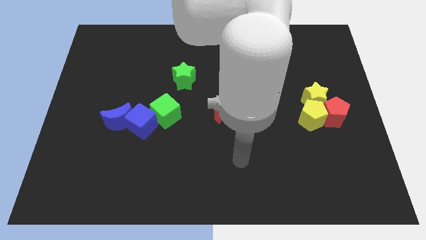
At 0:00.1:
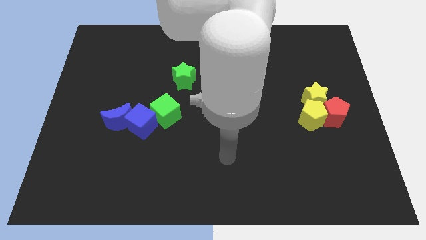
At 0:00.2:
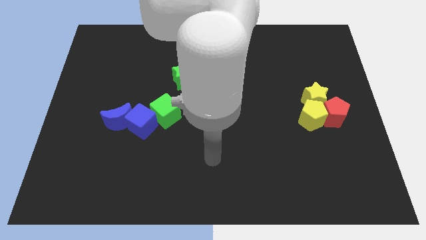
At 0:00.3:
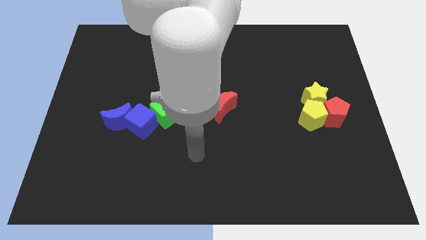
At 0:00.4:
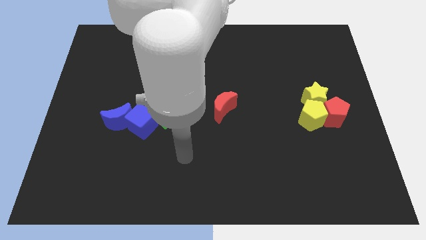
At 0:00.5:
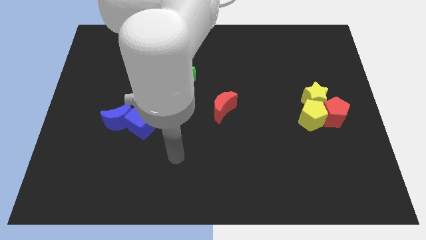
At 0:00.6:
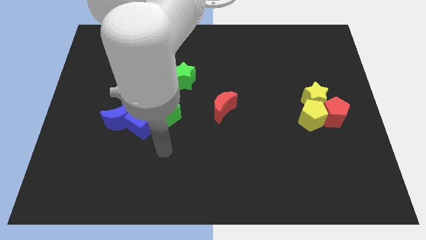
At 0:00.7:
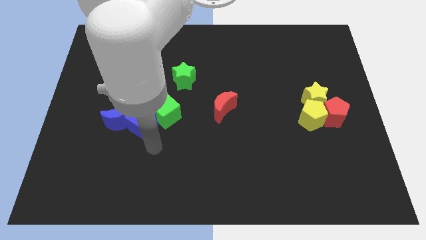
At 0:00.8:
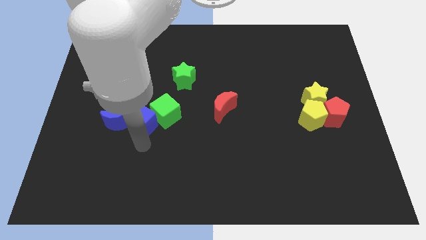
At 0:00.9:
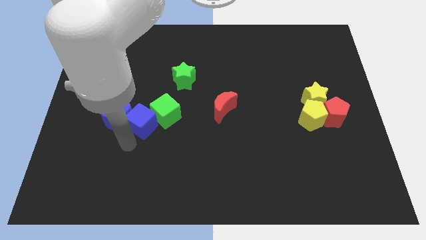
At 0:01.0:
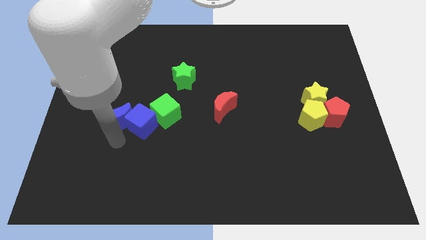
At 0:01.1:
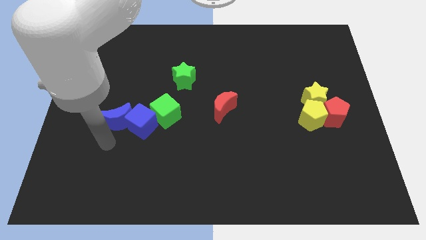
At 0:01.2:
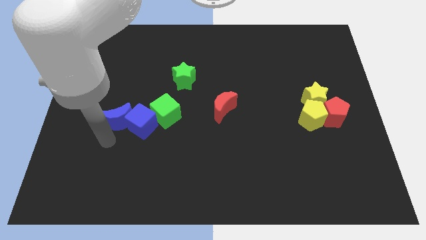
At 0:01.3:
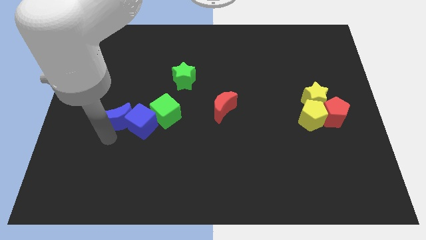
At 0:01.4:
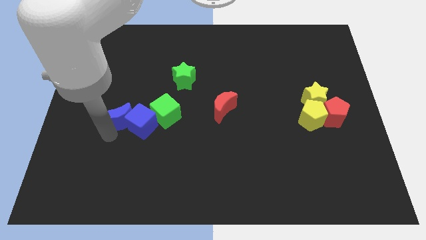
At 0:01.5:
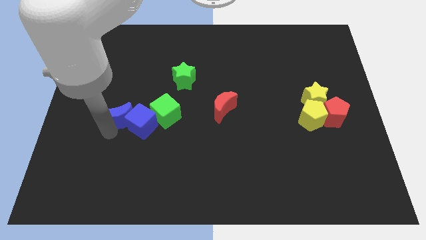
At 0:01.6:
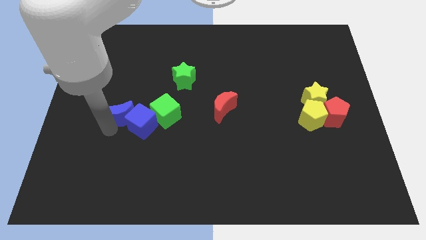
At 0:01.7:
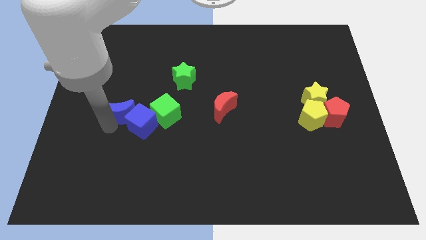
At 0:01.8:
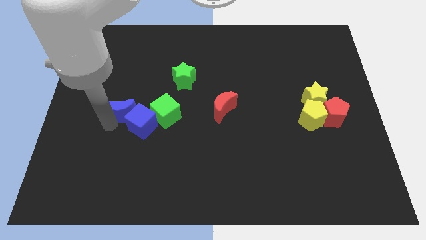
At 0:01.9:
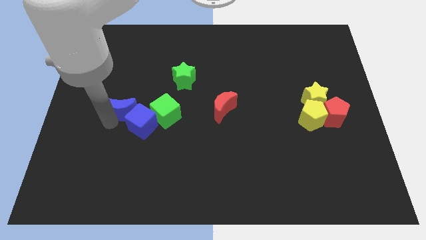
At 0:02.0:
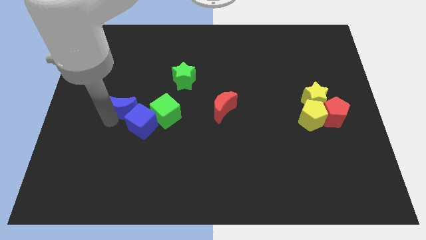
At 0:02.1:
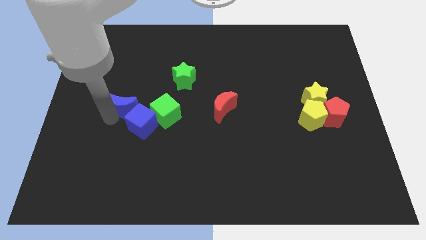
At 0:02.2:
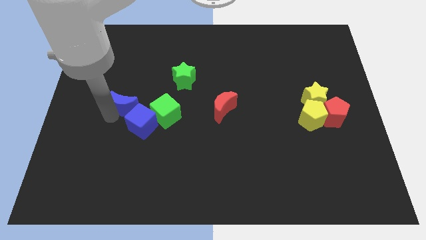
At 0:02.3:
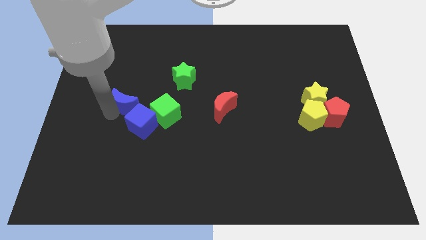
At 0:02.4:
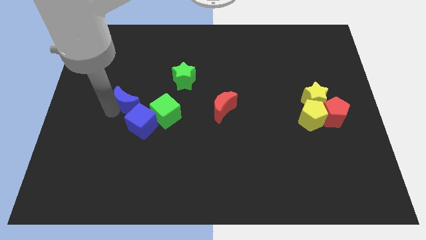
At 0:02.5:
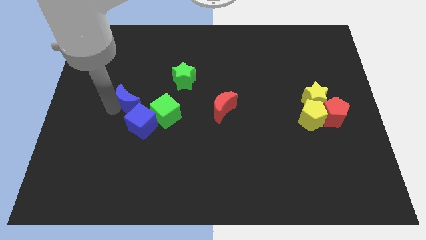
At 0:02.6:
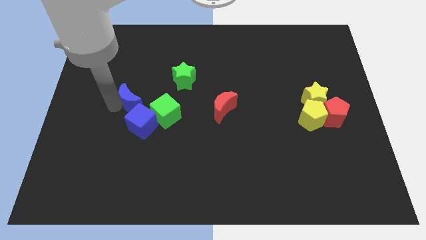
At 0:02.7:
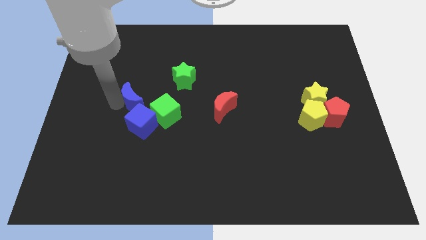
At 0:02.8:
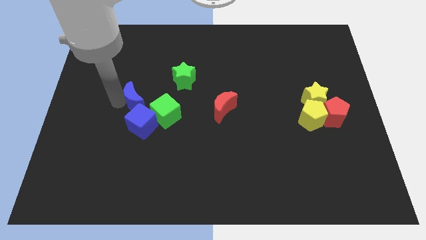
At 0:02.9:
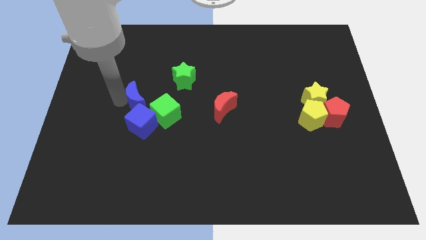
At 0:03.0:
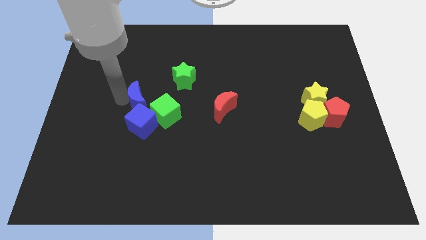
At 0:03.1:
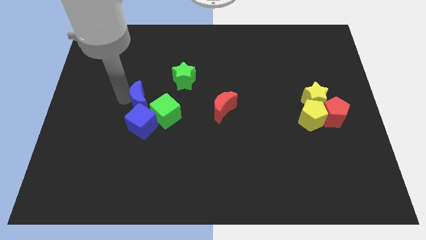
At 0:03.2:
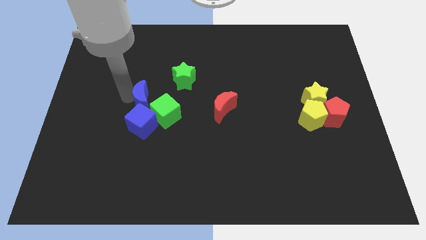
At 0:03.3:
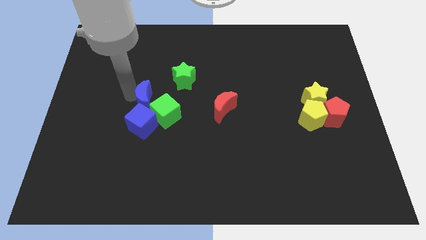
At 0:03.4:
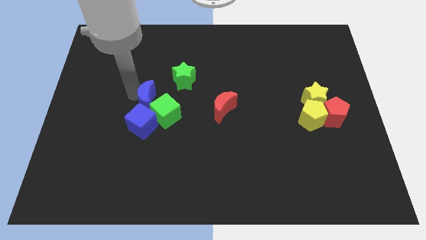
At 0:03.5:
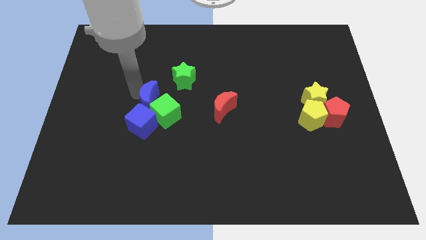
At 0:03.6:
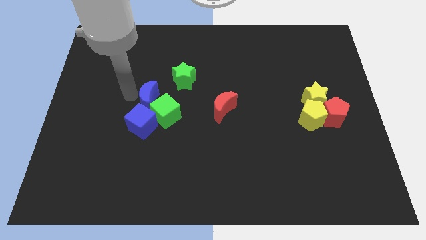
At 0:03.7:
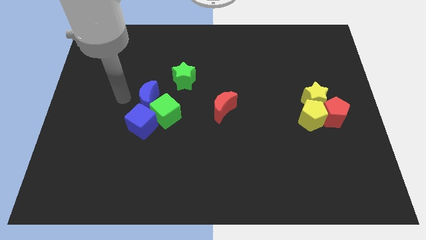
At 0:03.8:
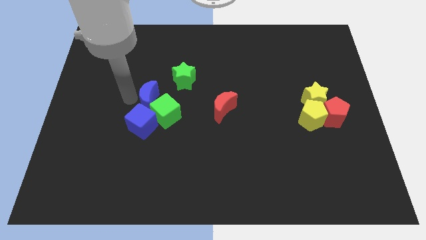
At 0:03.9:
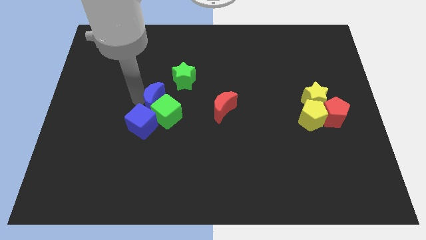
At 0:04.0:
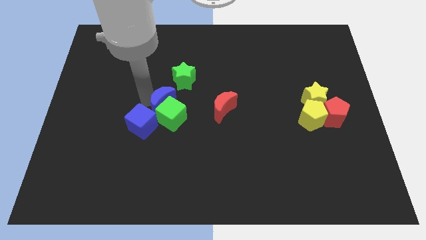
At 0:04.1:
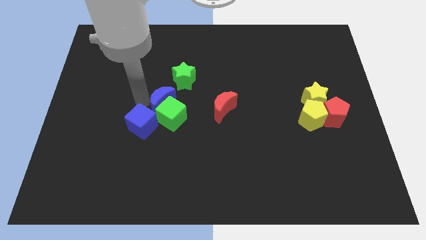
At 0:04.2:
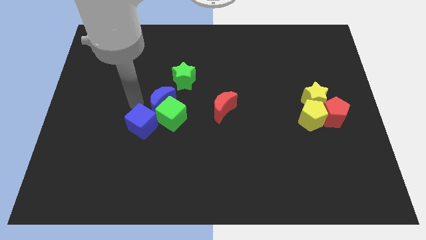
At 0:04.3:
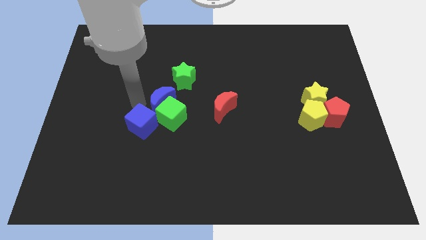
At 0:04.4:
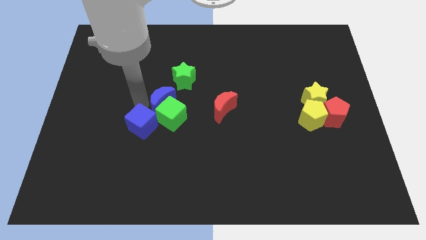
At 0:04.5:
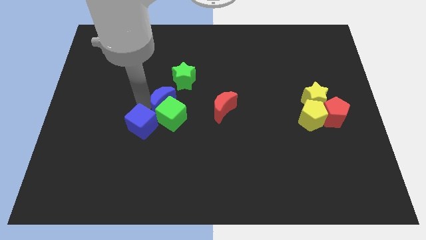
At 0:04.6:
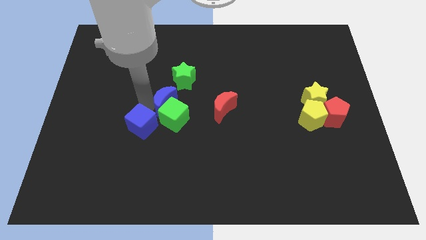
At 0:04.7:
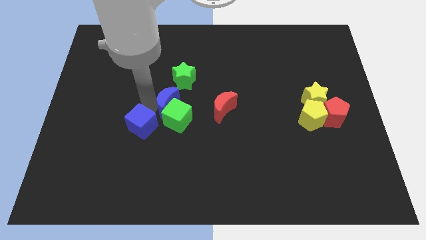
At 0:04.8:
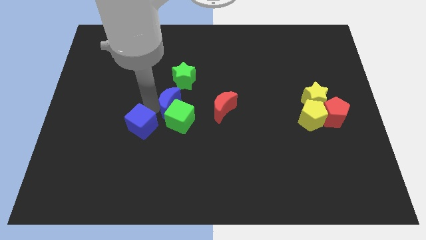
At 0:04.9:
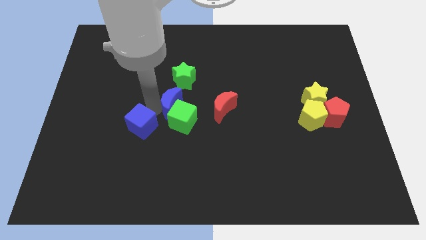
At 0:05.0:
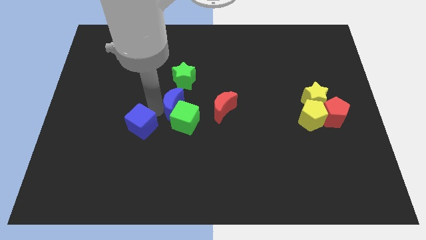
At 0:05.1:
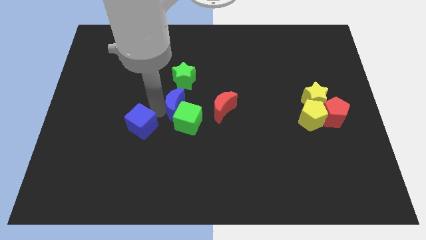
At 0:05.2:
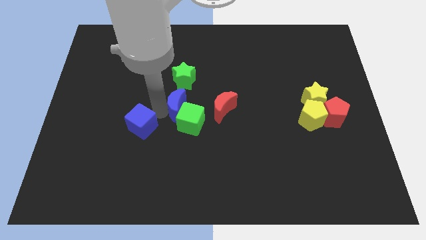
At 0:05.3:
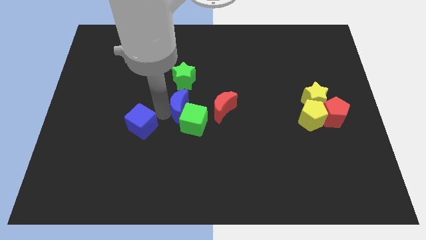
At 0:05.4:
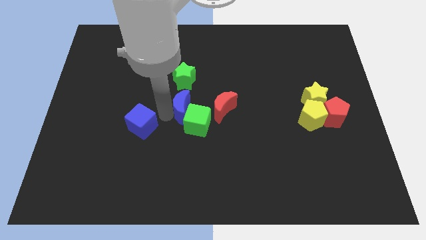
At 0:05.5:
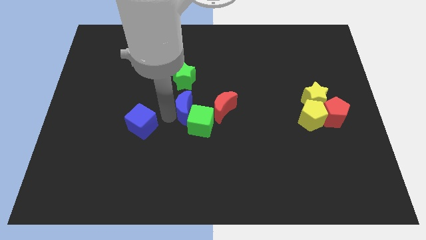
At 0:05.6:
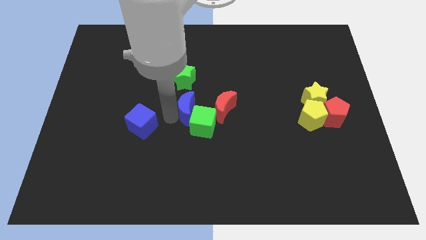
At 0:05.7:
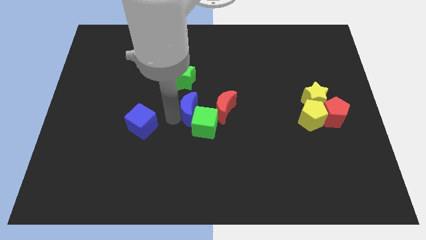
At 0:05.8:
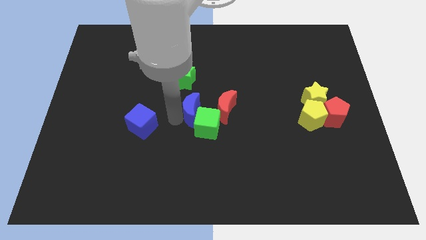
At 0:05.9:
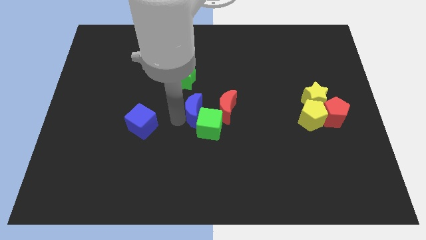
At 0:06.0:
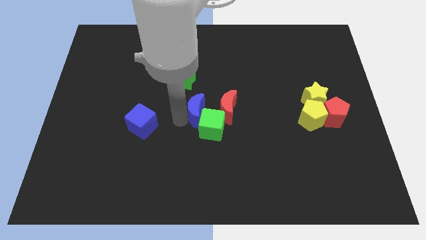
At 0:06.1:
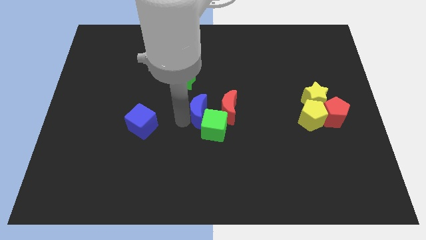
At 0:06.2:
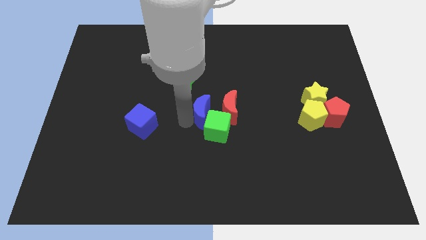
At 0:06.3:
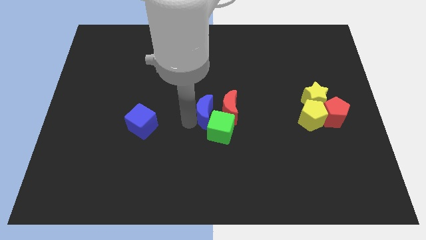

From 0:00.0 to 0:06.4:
move the blue moon to the red moon
